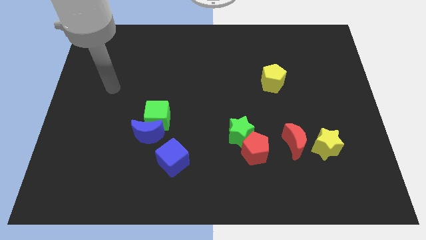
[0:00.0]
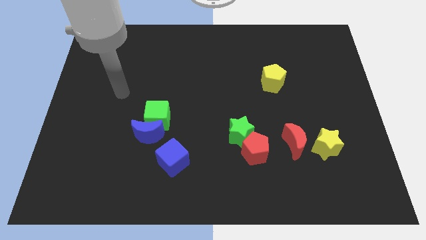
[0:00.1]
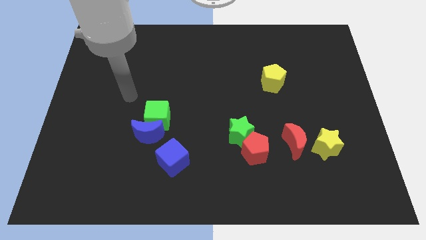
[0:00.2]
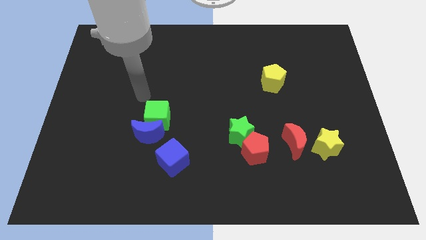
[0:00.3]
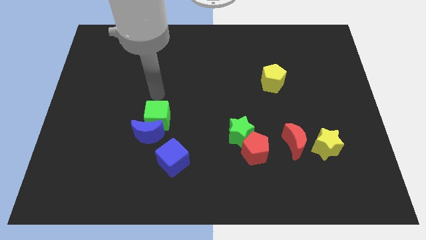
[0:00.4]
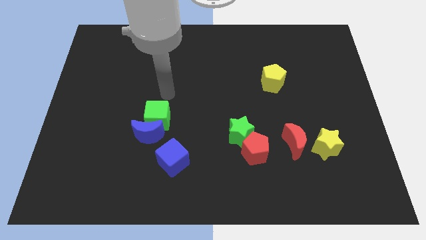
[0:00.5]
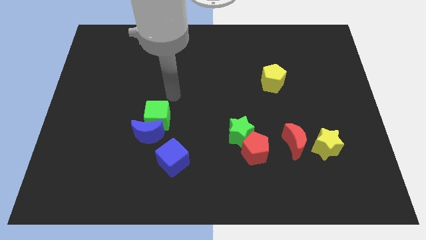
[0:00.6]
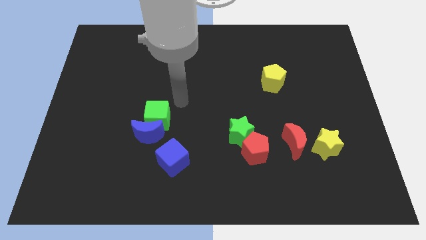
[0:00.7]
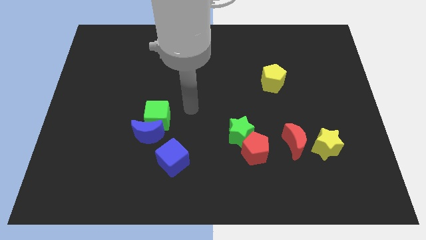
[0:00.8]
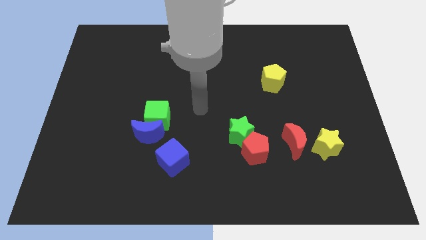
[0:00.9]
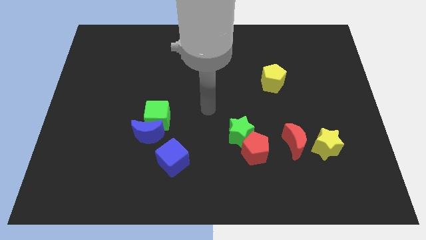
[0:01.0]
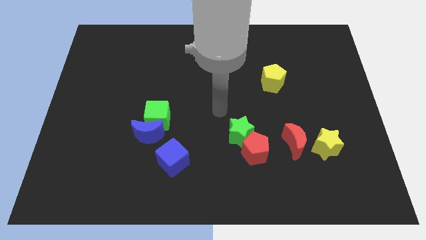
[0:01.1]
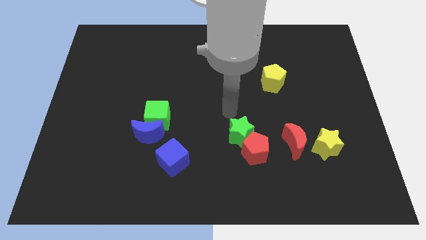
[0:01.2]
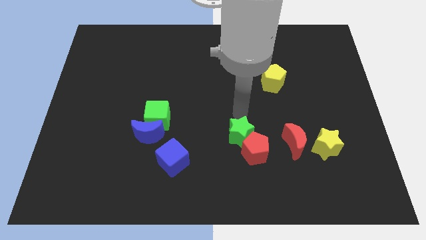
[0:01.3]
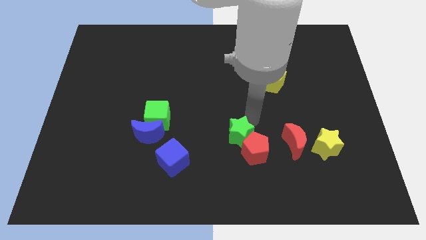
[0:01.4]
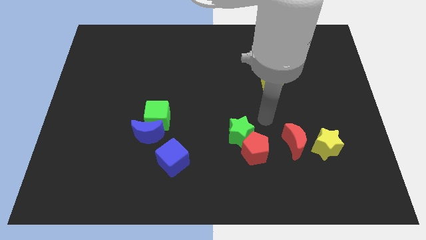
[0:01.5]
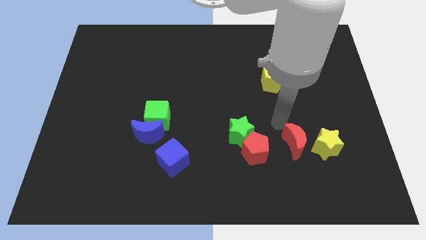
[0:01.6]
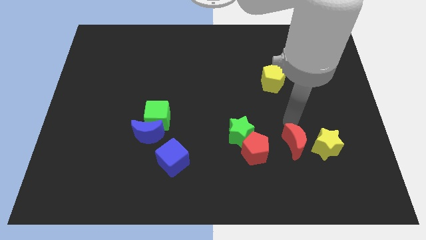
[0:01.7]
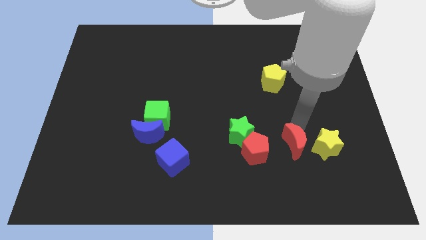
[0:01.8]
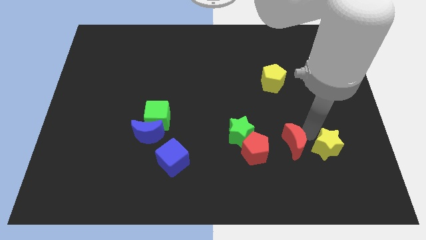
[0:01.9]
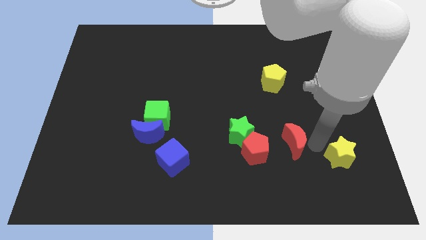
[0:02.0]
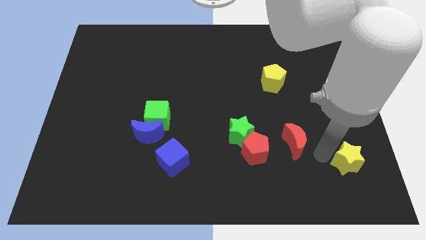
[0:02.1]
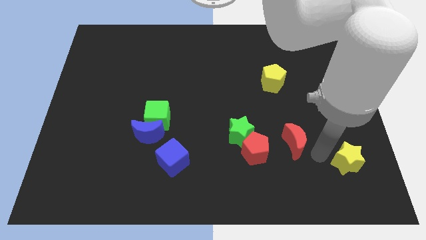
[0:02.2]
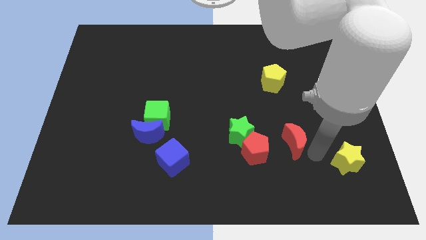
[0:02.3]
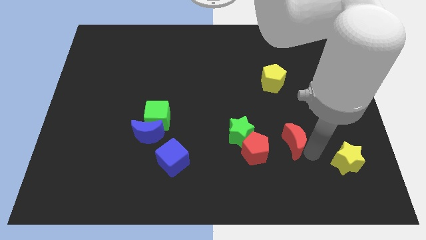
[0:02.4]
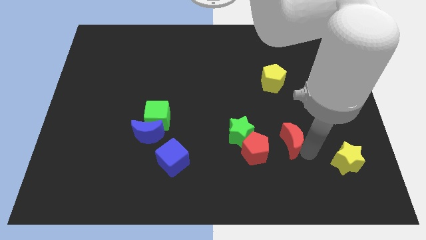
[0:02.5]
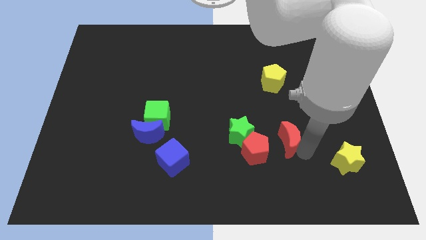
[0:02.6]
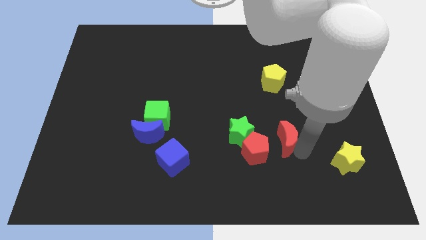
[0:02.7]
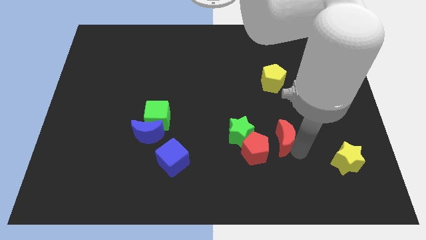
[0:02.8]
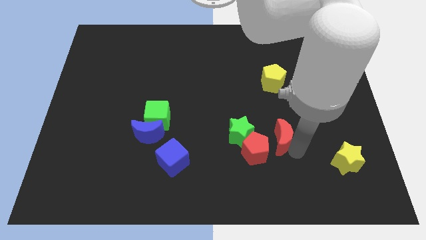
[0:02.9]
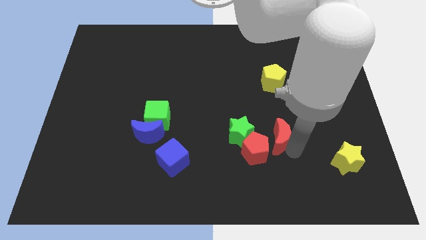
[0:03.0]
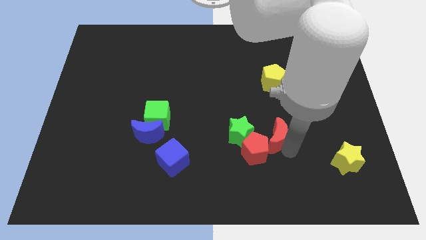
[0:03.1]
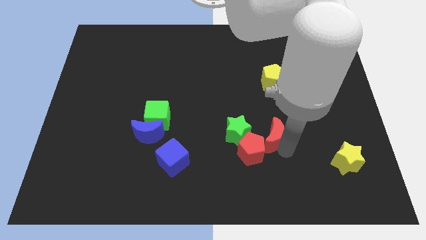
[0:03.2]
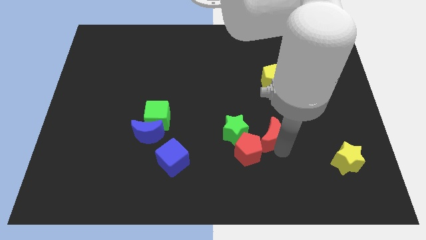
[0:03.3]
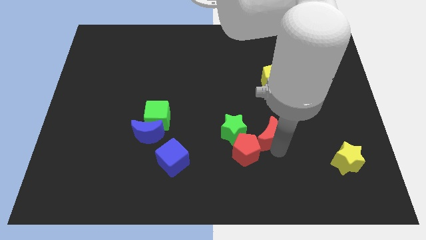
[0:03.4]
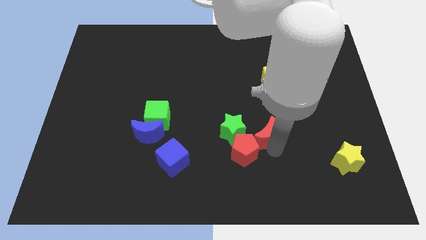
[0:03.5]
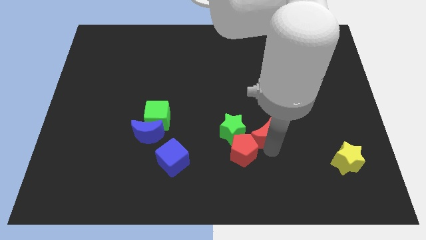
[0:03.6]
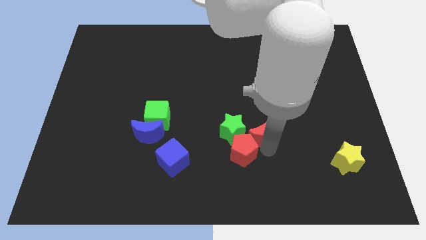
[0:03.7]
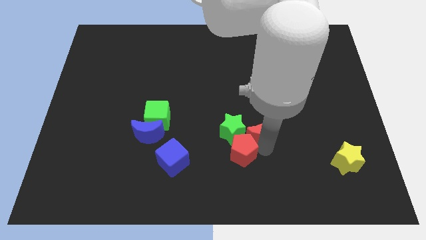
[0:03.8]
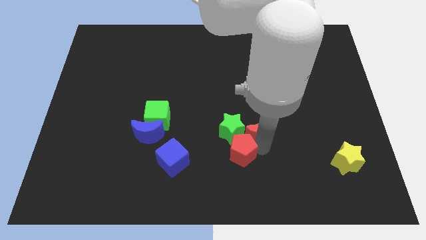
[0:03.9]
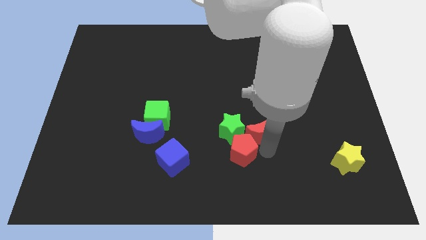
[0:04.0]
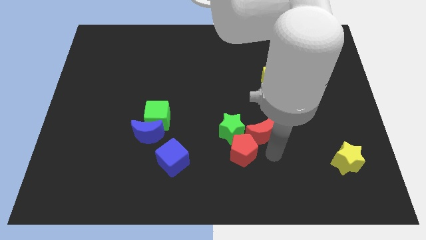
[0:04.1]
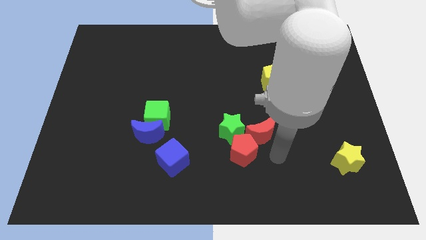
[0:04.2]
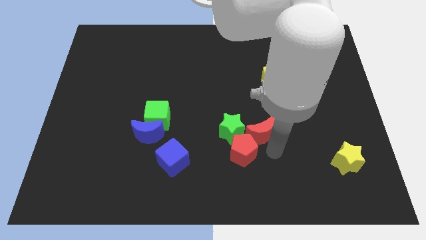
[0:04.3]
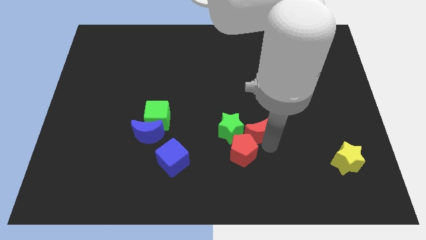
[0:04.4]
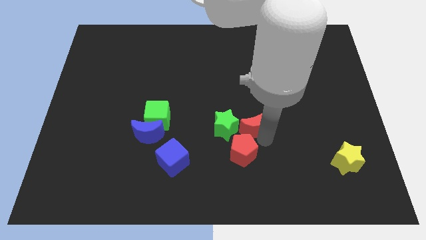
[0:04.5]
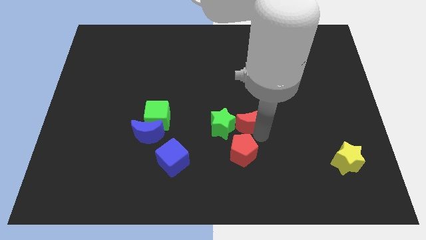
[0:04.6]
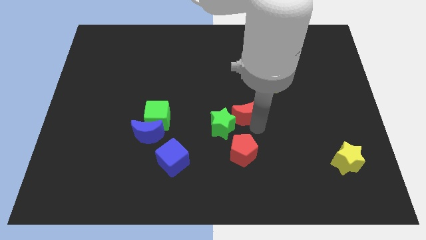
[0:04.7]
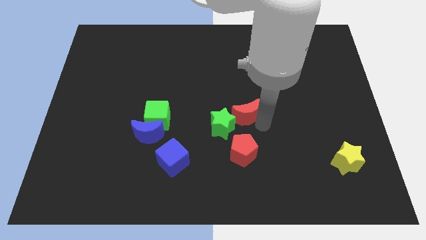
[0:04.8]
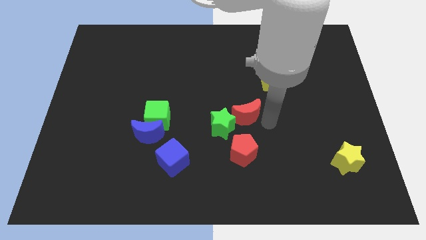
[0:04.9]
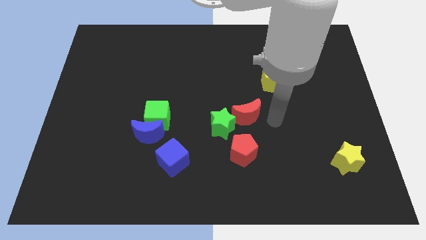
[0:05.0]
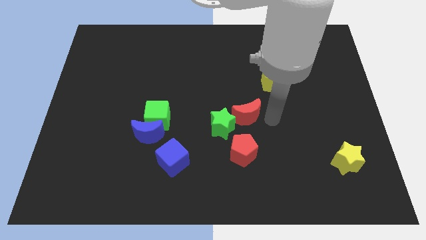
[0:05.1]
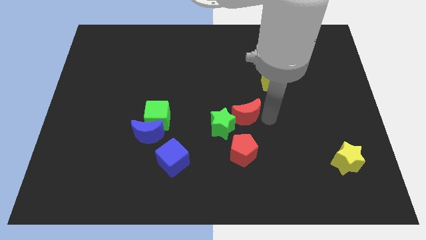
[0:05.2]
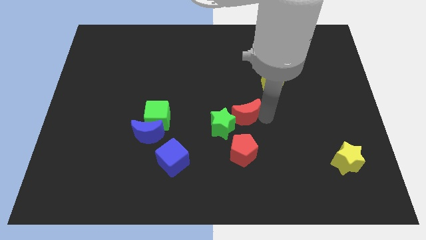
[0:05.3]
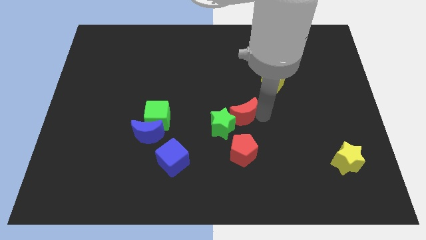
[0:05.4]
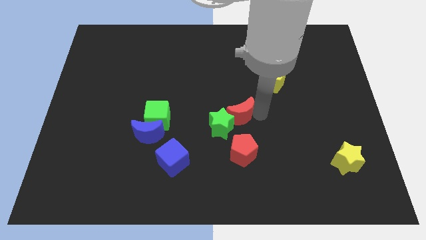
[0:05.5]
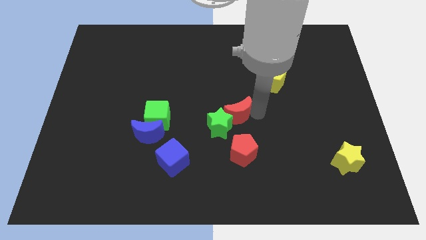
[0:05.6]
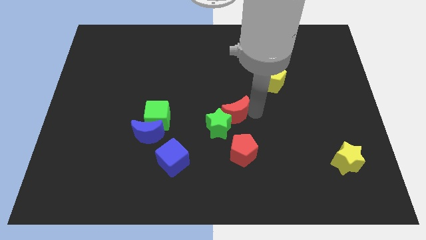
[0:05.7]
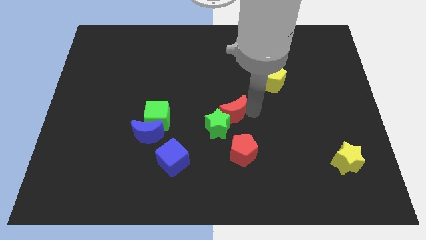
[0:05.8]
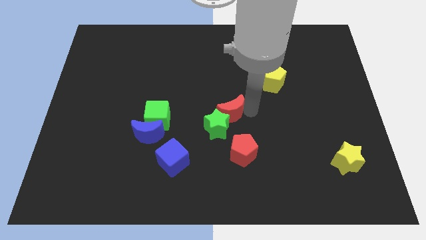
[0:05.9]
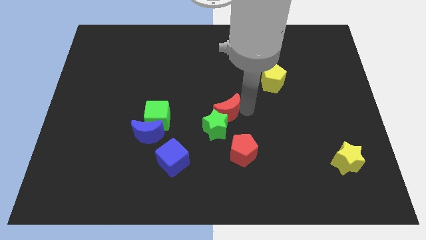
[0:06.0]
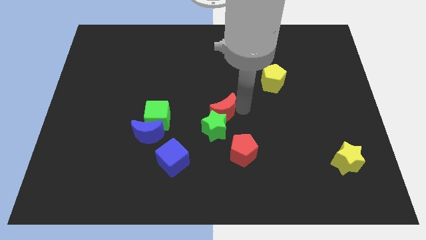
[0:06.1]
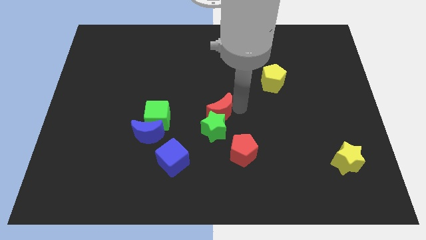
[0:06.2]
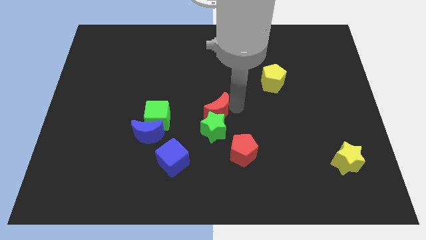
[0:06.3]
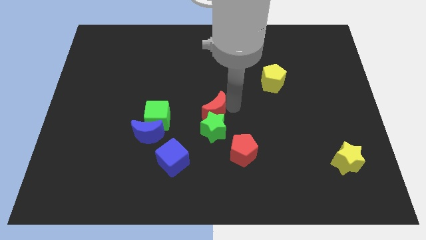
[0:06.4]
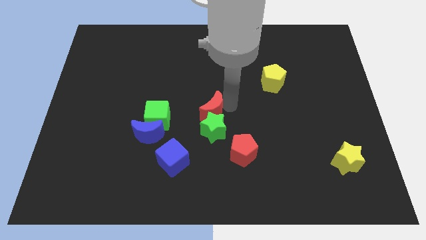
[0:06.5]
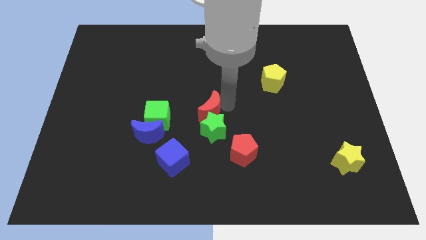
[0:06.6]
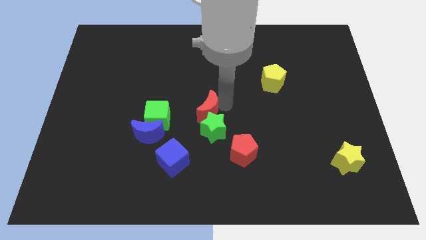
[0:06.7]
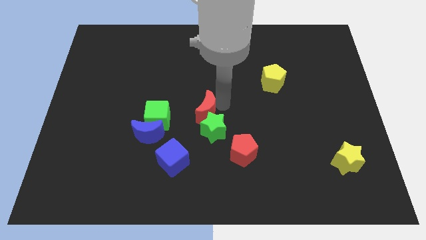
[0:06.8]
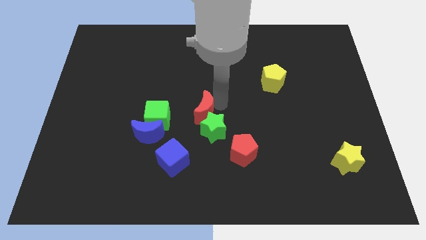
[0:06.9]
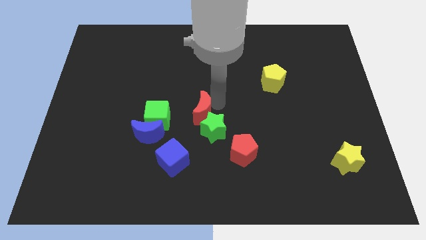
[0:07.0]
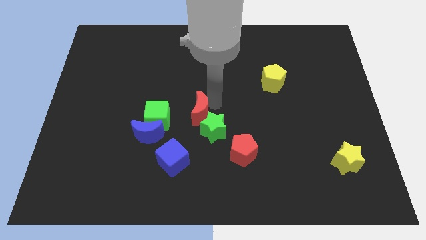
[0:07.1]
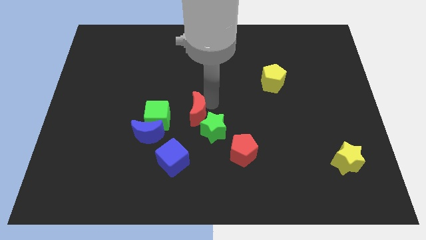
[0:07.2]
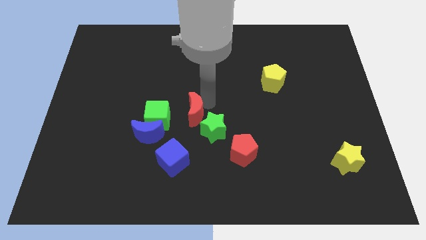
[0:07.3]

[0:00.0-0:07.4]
put the red moon to the top side of the blue cube
